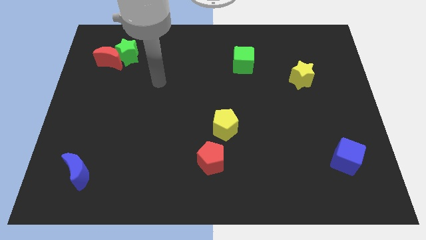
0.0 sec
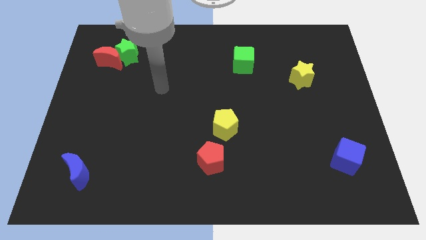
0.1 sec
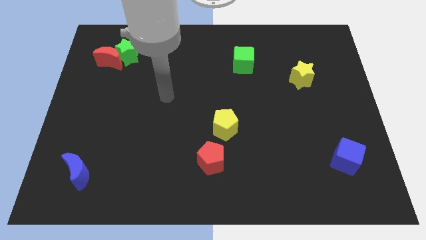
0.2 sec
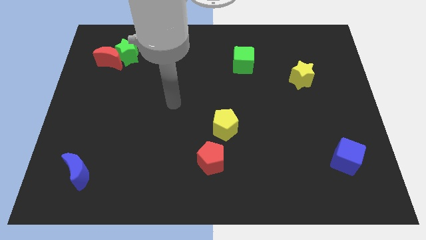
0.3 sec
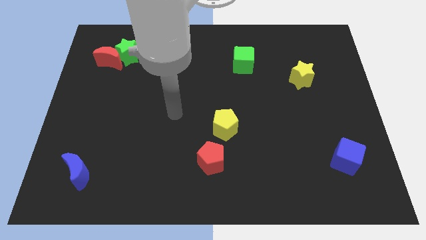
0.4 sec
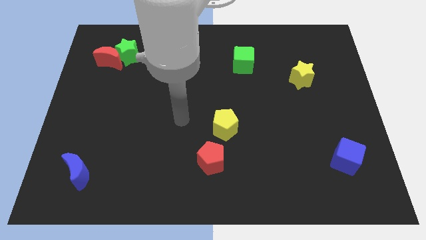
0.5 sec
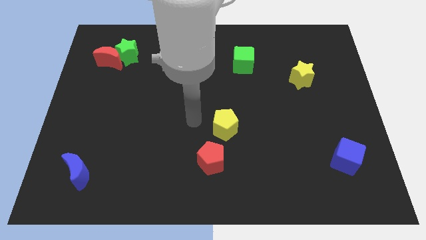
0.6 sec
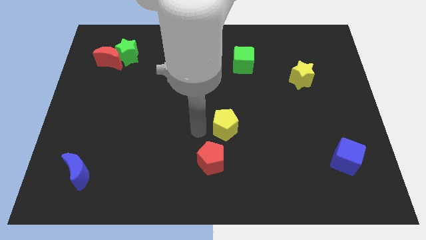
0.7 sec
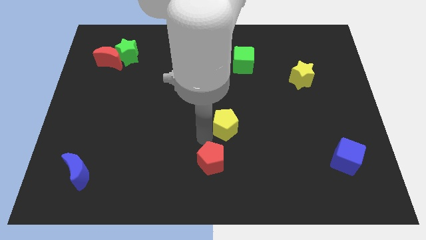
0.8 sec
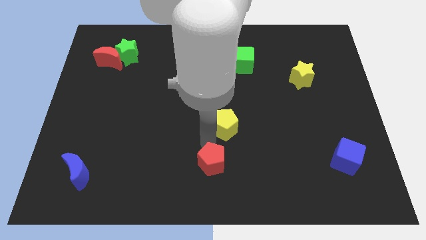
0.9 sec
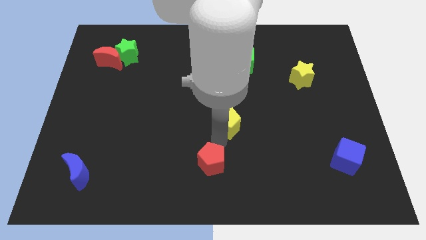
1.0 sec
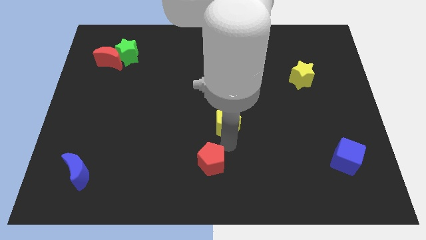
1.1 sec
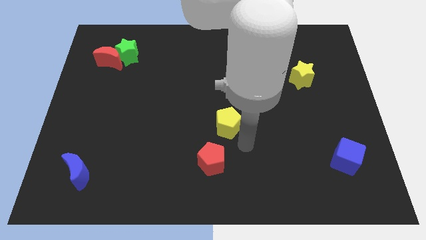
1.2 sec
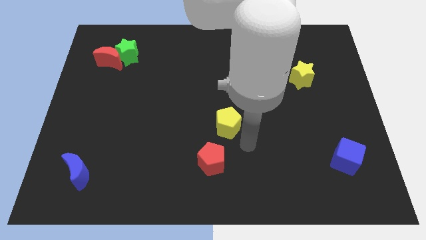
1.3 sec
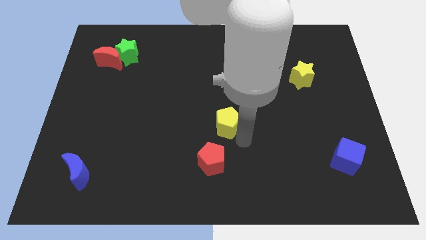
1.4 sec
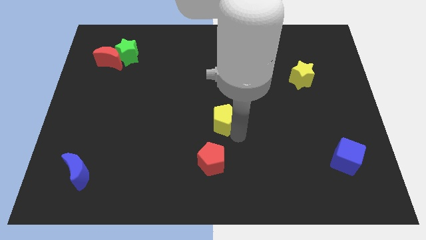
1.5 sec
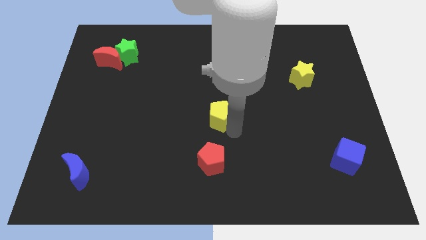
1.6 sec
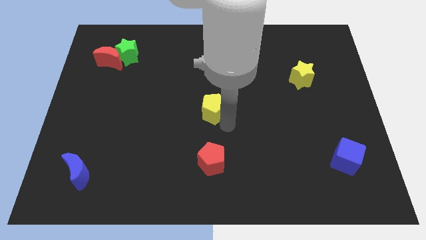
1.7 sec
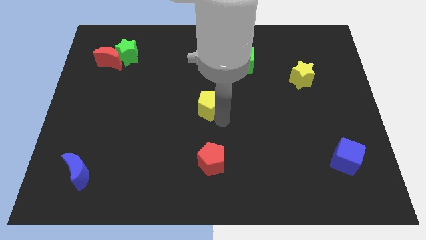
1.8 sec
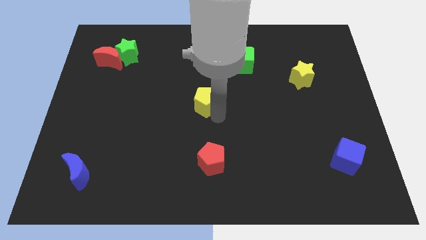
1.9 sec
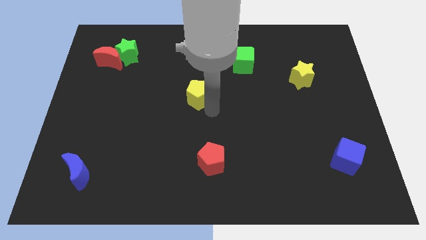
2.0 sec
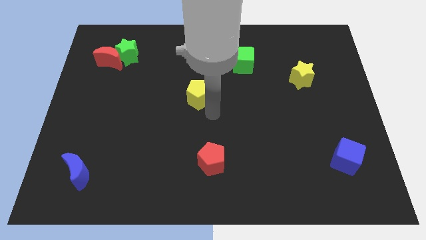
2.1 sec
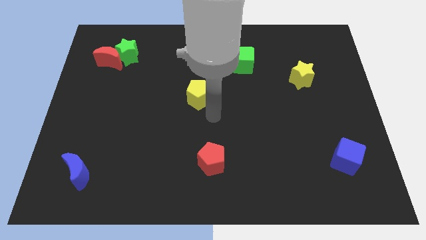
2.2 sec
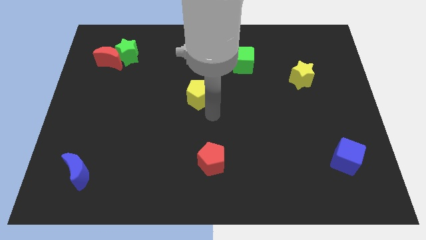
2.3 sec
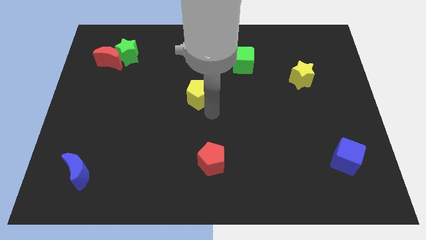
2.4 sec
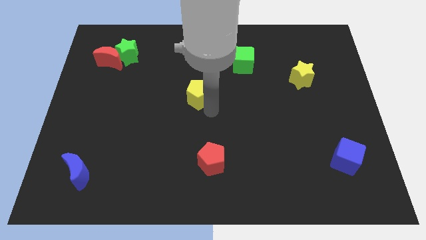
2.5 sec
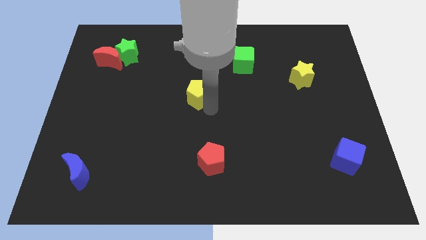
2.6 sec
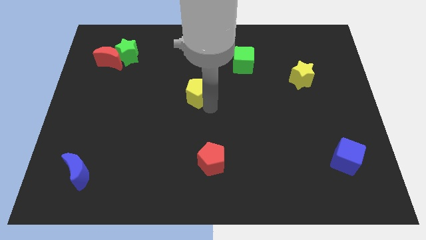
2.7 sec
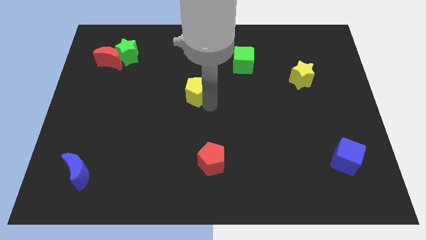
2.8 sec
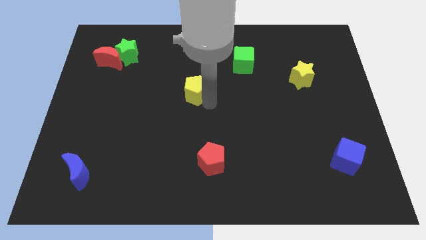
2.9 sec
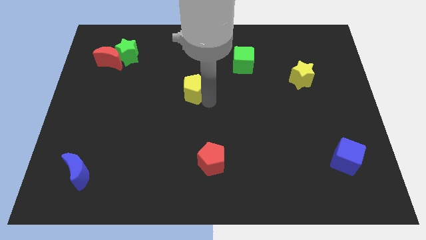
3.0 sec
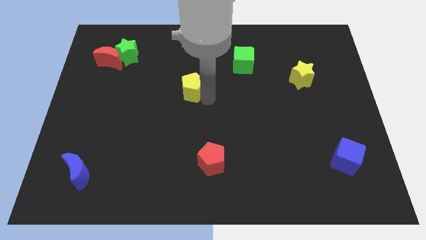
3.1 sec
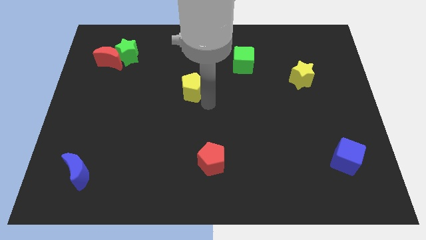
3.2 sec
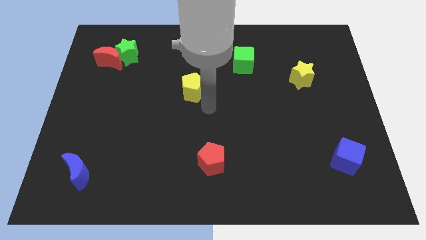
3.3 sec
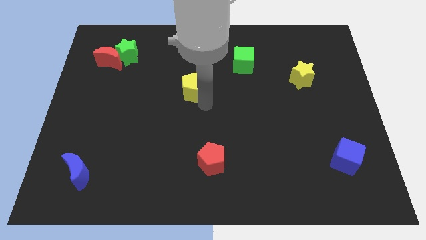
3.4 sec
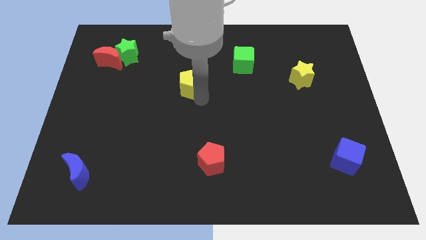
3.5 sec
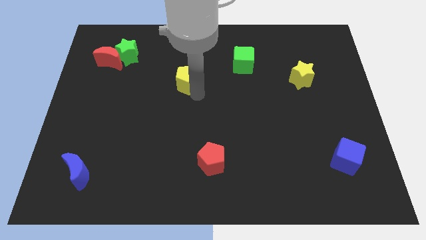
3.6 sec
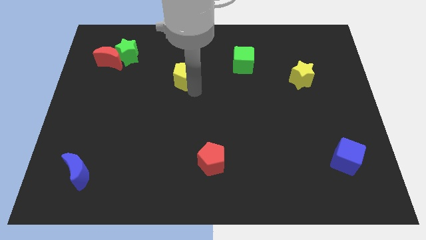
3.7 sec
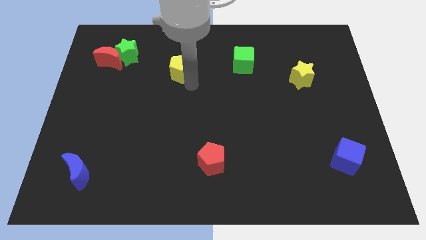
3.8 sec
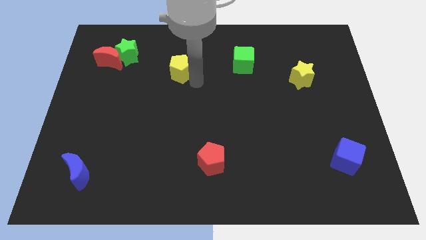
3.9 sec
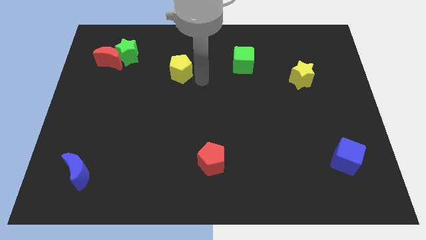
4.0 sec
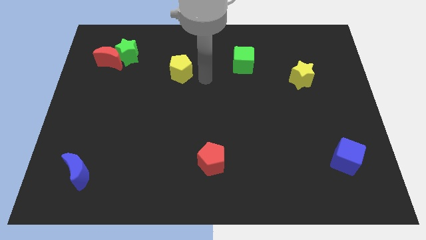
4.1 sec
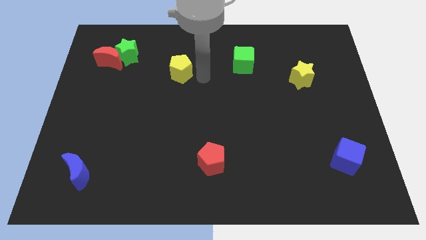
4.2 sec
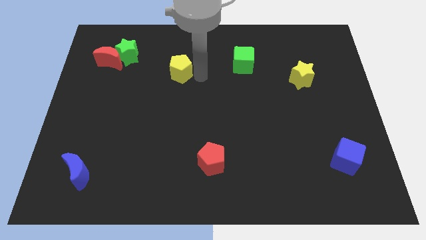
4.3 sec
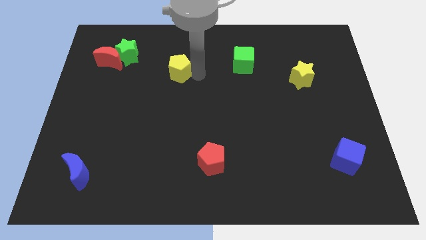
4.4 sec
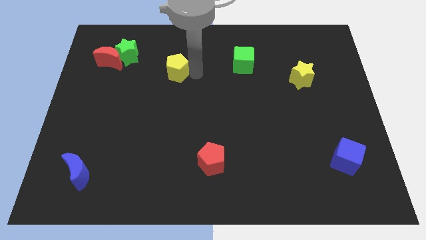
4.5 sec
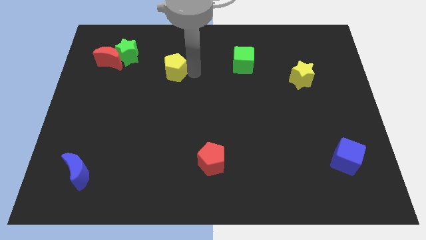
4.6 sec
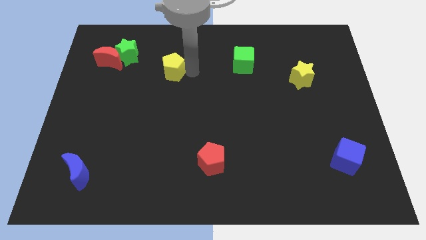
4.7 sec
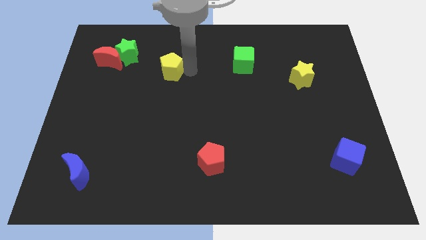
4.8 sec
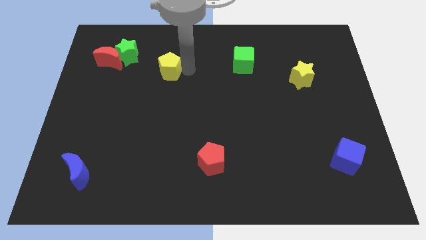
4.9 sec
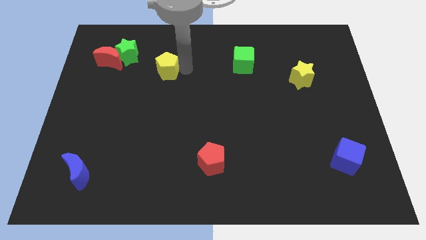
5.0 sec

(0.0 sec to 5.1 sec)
push the yellow pentagon to the right side of the red moon

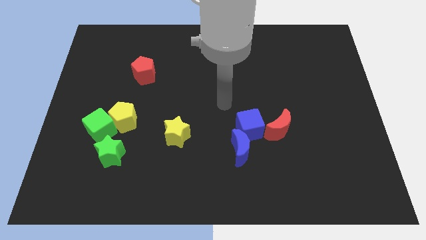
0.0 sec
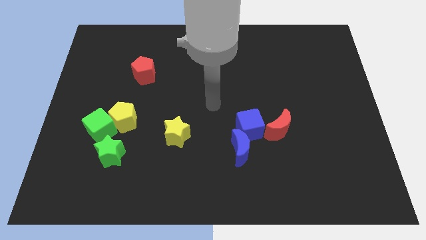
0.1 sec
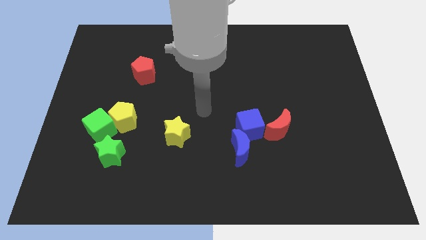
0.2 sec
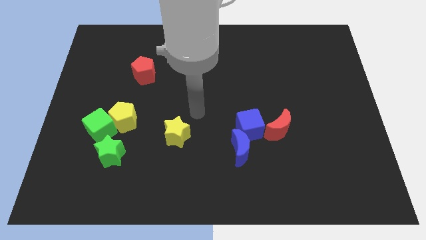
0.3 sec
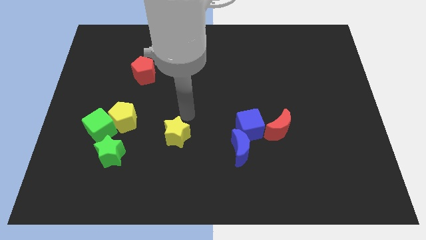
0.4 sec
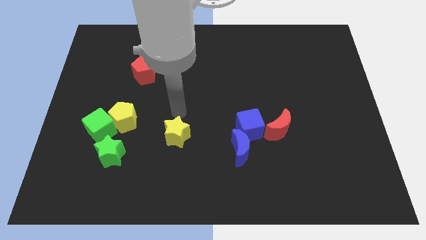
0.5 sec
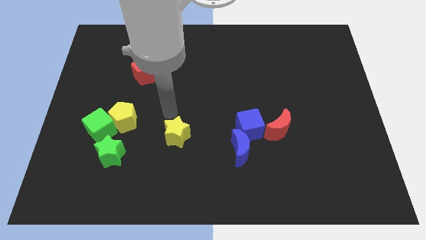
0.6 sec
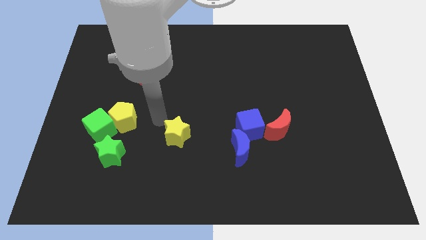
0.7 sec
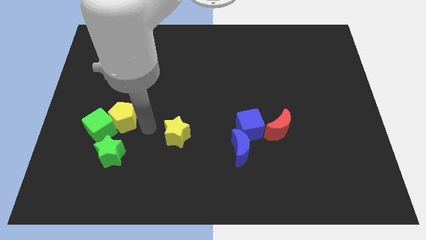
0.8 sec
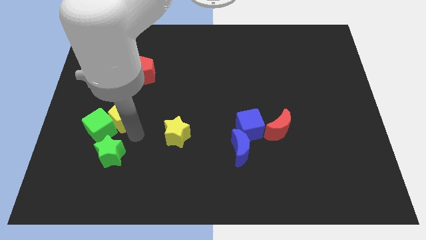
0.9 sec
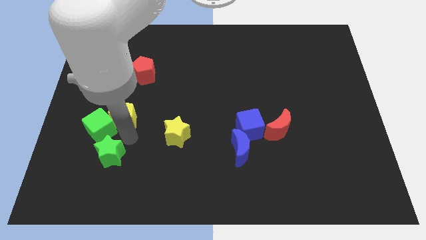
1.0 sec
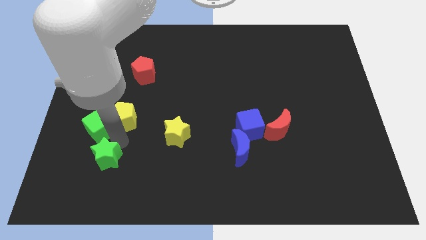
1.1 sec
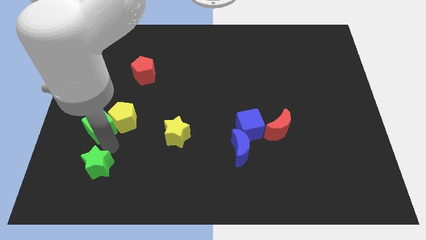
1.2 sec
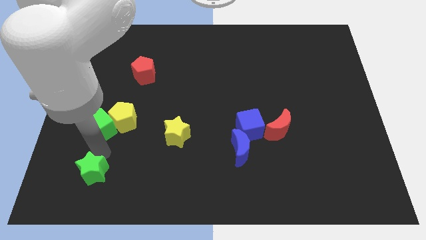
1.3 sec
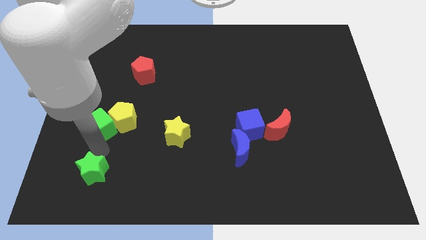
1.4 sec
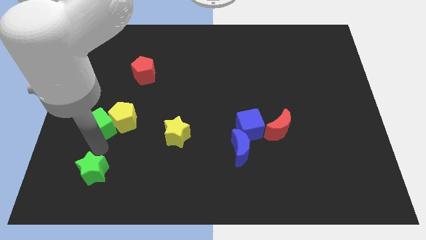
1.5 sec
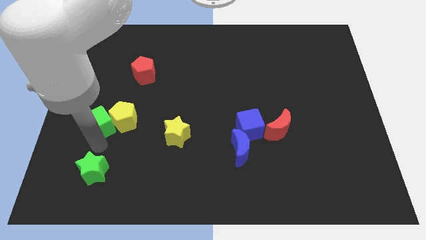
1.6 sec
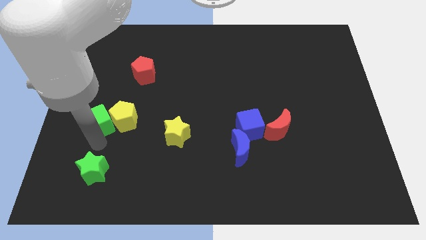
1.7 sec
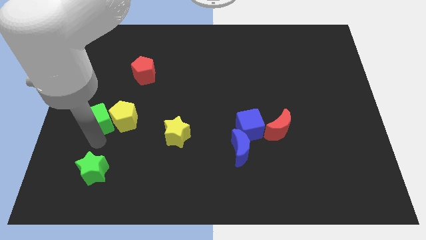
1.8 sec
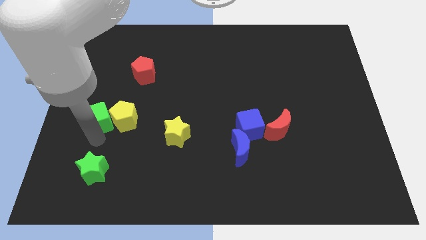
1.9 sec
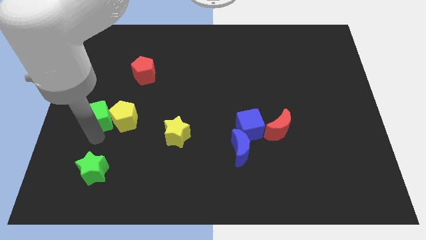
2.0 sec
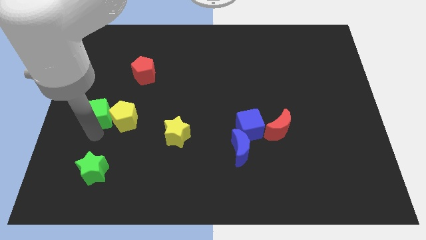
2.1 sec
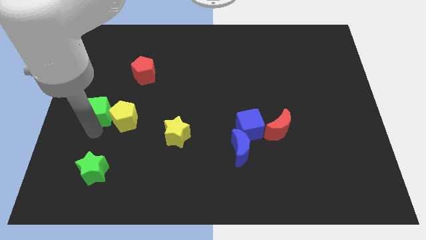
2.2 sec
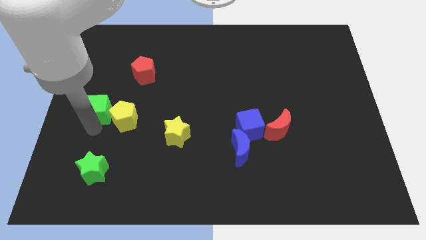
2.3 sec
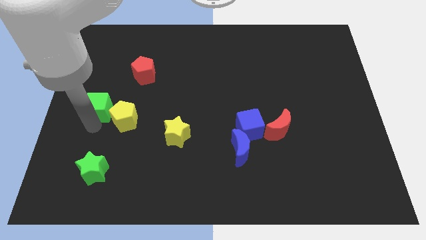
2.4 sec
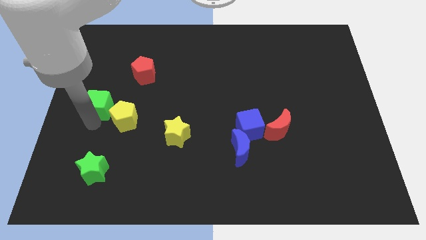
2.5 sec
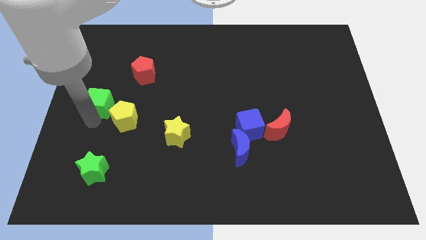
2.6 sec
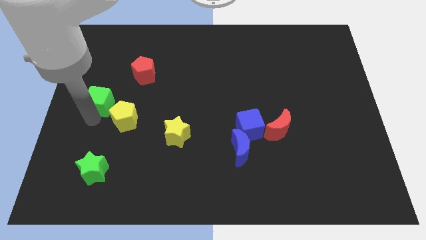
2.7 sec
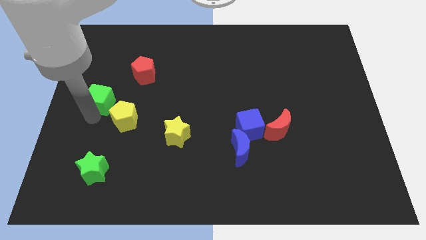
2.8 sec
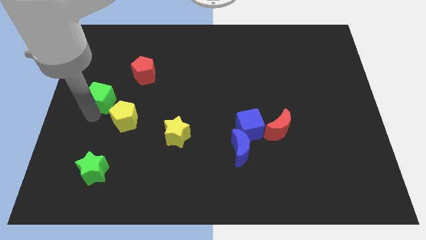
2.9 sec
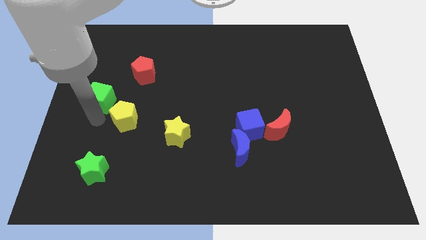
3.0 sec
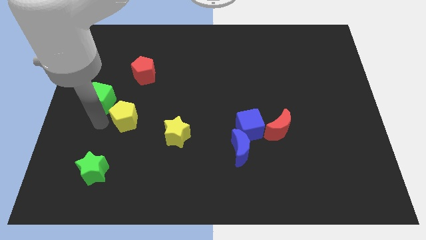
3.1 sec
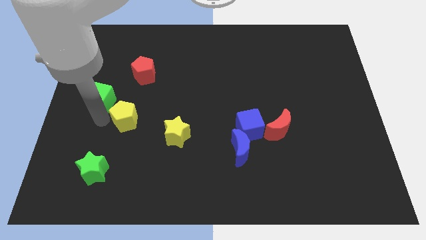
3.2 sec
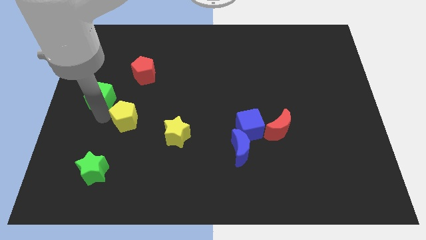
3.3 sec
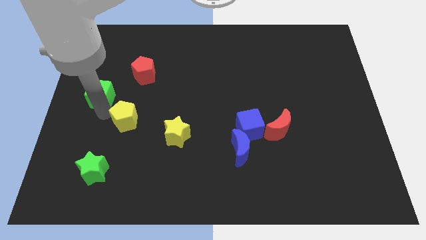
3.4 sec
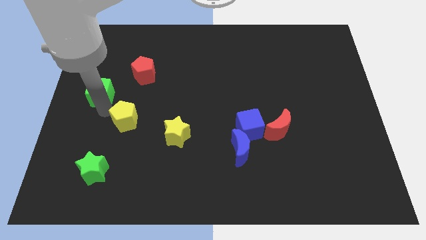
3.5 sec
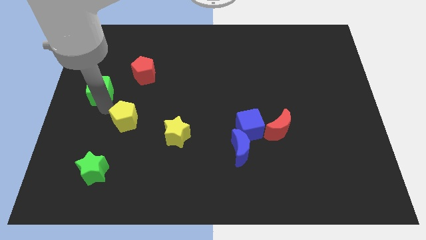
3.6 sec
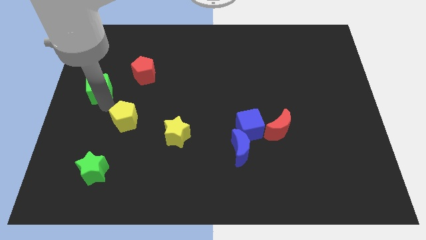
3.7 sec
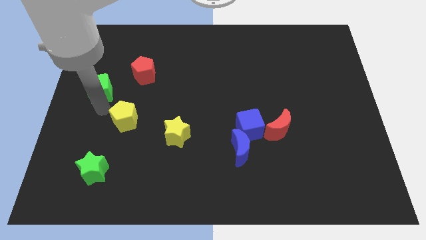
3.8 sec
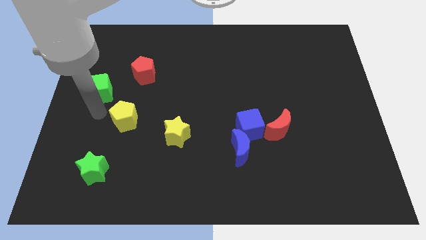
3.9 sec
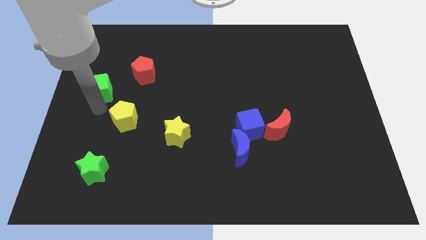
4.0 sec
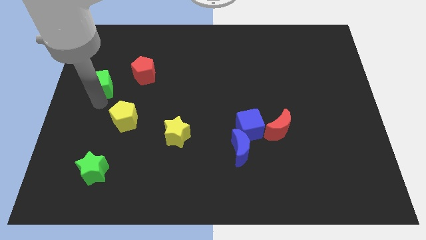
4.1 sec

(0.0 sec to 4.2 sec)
move the green cube to the left of the red pentagon
